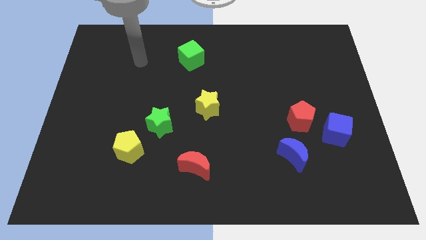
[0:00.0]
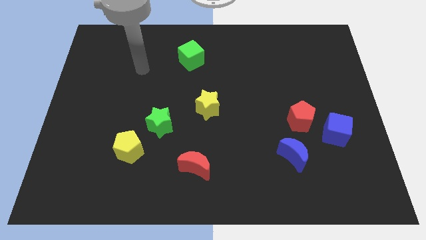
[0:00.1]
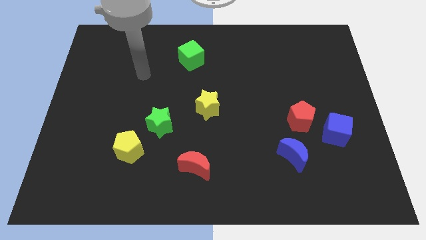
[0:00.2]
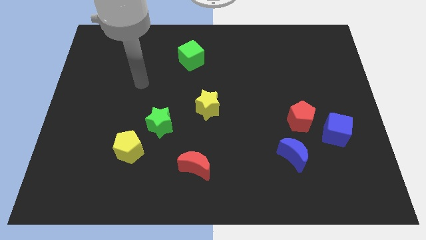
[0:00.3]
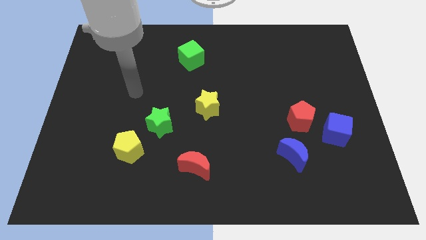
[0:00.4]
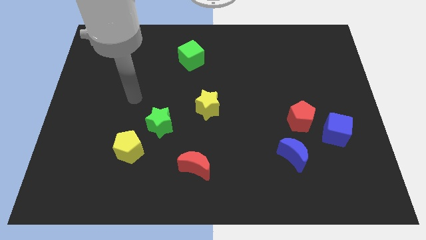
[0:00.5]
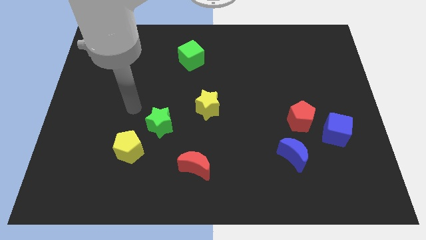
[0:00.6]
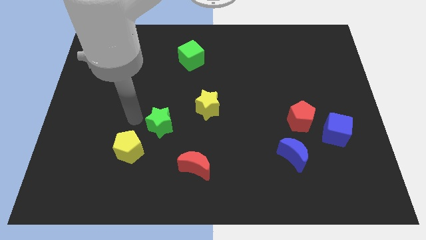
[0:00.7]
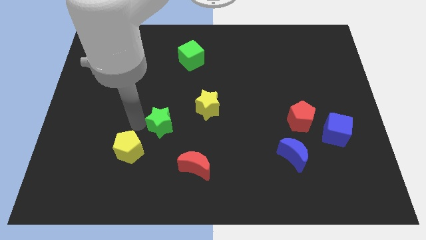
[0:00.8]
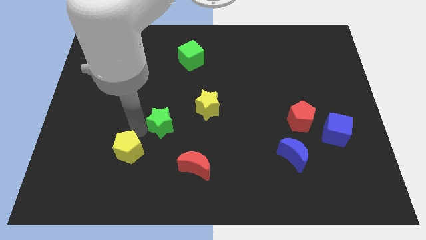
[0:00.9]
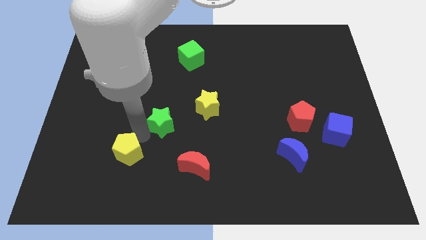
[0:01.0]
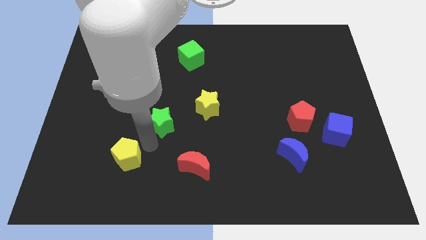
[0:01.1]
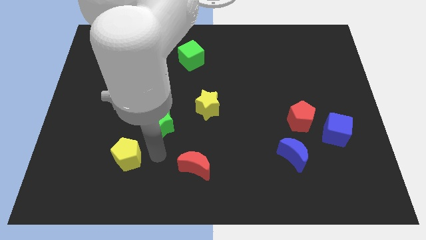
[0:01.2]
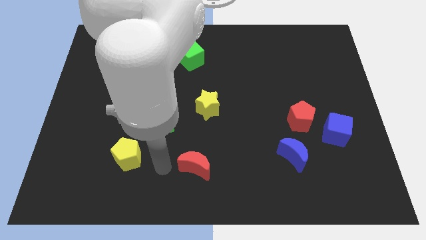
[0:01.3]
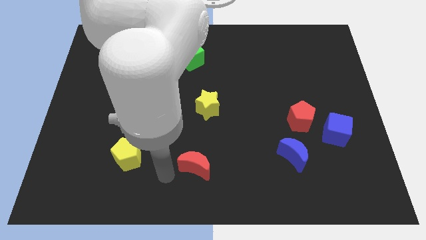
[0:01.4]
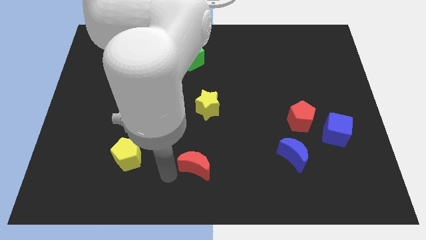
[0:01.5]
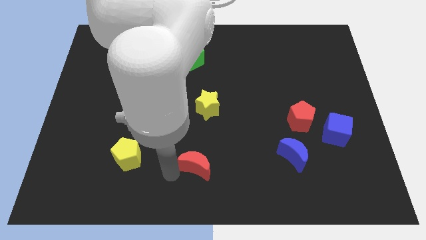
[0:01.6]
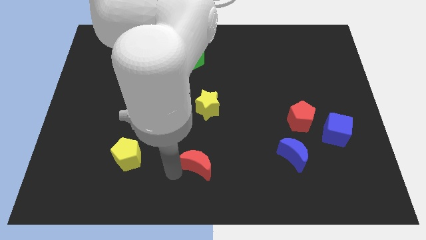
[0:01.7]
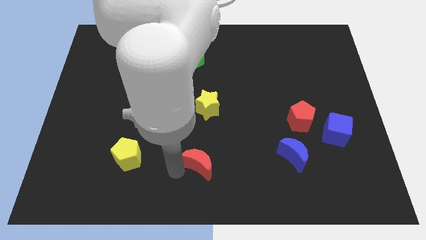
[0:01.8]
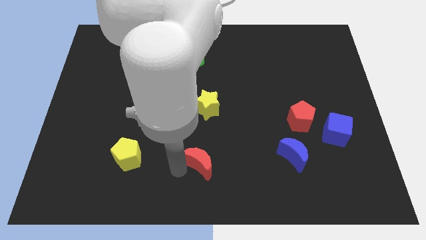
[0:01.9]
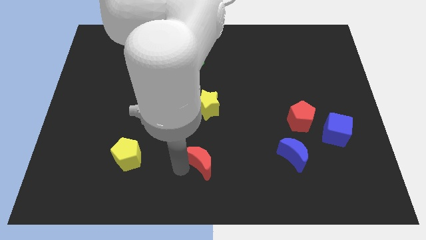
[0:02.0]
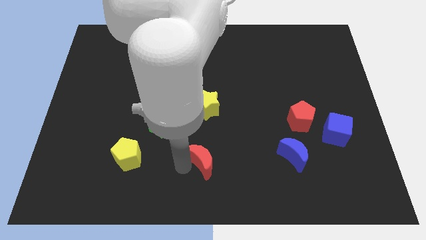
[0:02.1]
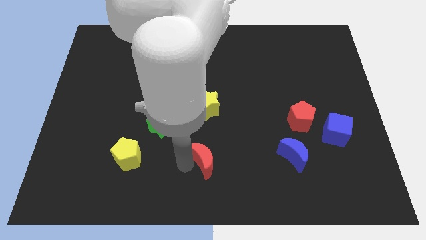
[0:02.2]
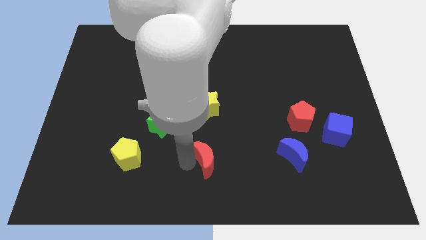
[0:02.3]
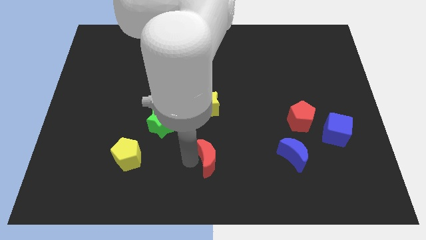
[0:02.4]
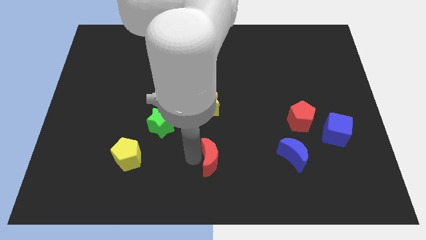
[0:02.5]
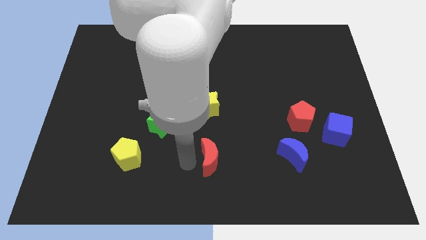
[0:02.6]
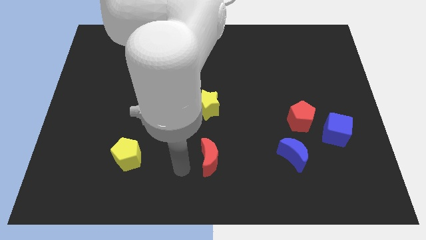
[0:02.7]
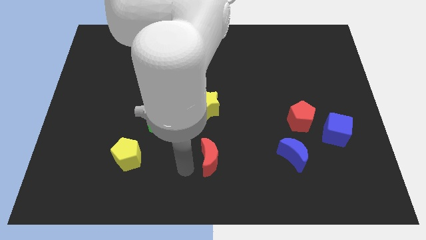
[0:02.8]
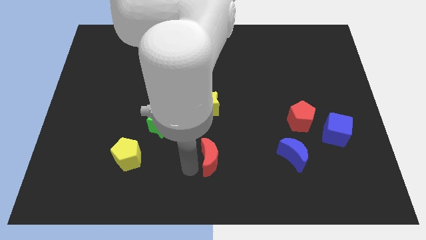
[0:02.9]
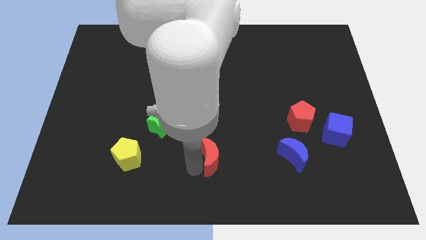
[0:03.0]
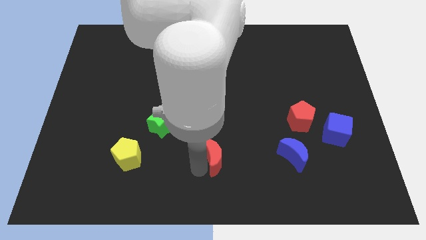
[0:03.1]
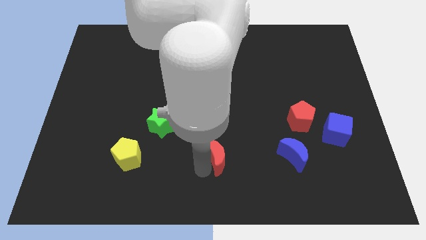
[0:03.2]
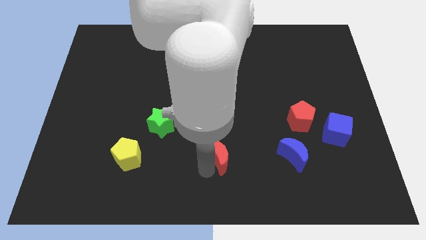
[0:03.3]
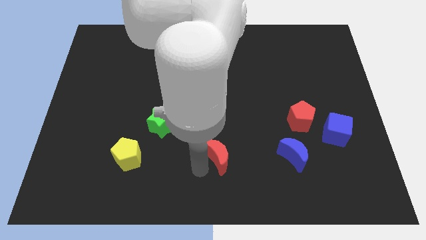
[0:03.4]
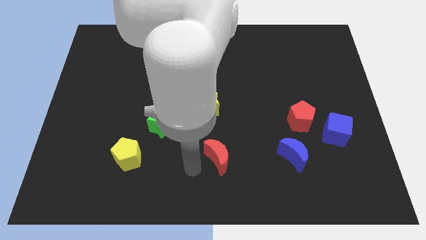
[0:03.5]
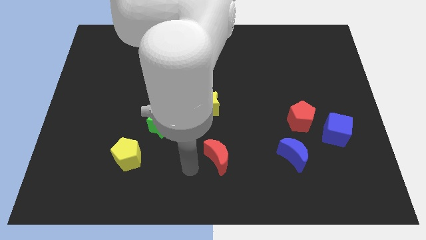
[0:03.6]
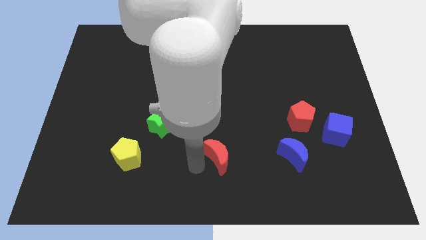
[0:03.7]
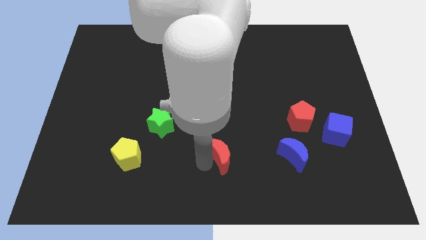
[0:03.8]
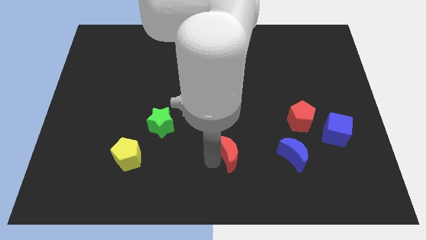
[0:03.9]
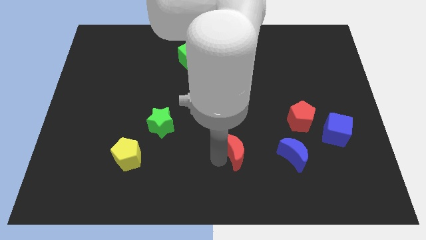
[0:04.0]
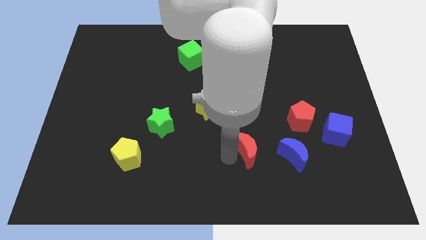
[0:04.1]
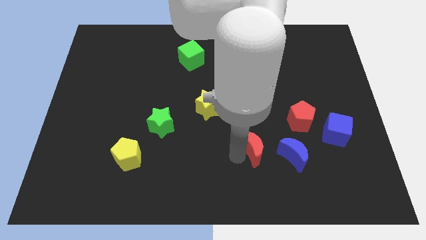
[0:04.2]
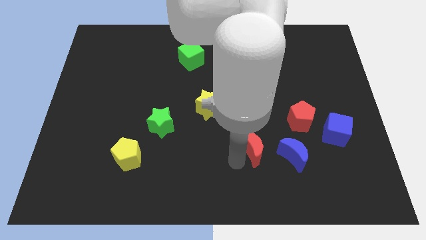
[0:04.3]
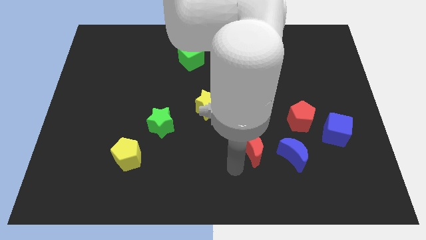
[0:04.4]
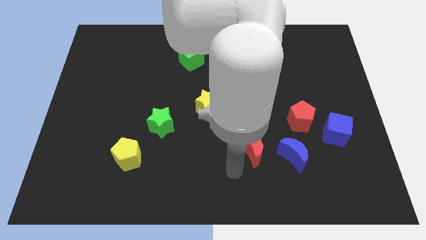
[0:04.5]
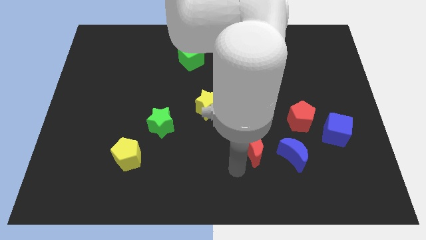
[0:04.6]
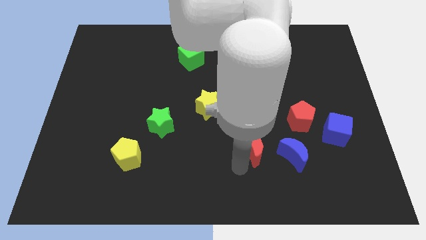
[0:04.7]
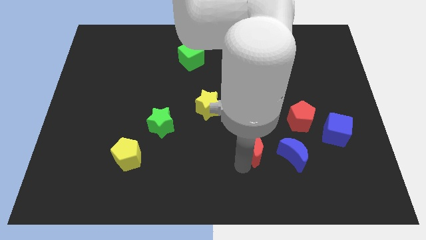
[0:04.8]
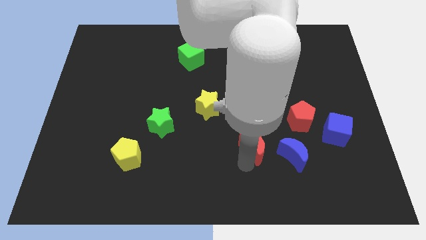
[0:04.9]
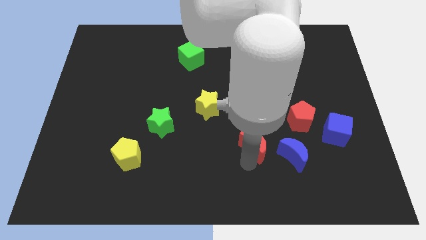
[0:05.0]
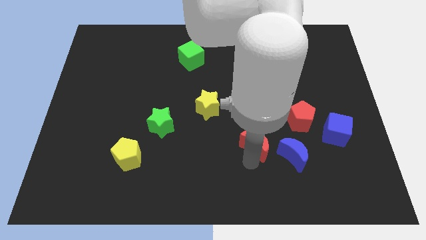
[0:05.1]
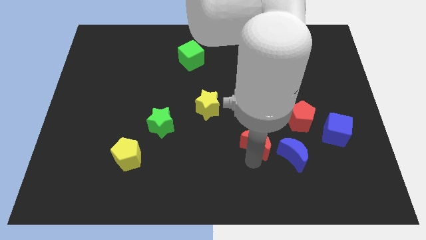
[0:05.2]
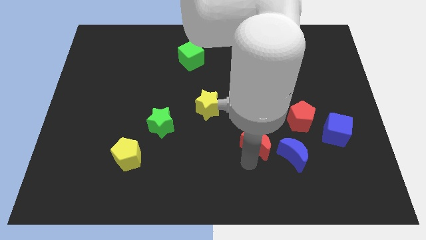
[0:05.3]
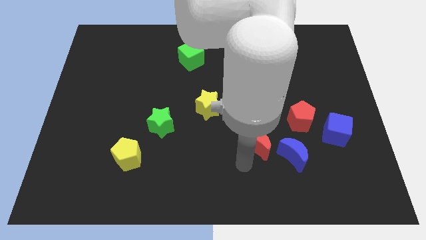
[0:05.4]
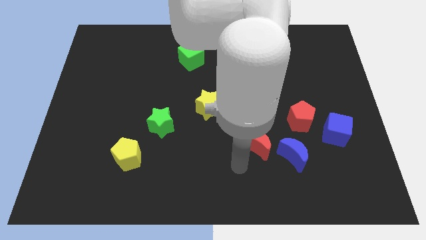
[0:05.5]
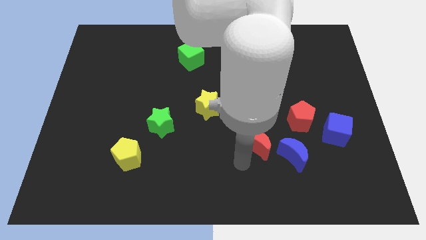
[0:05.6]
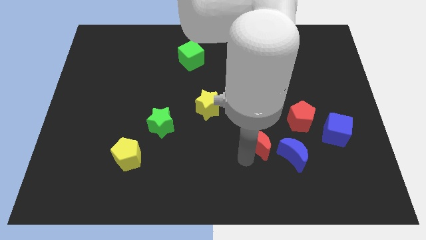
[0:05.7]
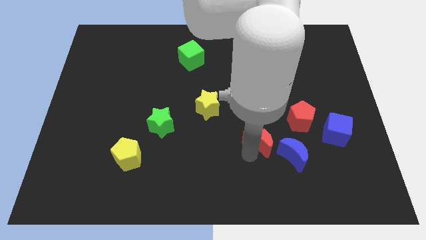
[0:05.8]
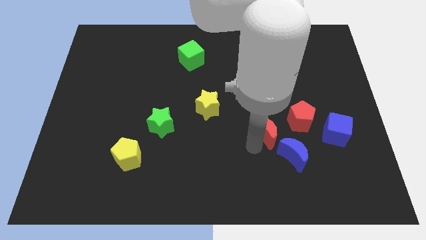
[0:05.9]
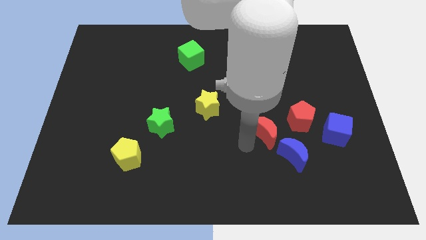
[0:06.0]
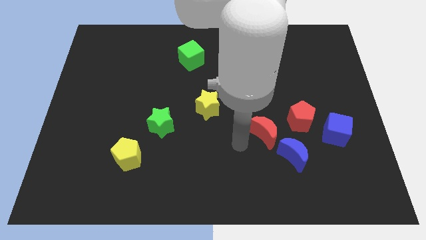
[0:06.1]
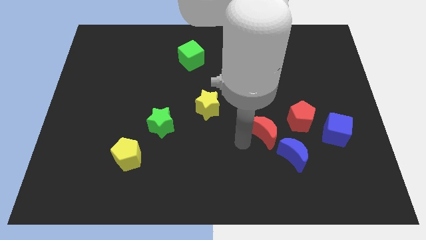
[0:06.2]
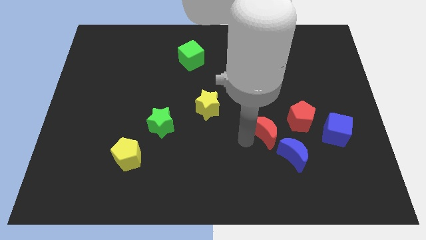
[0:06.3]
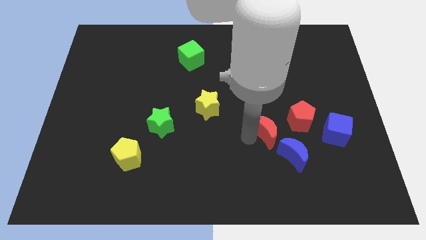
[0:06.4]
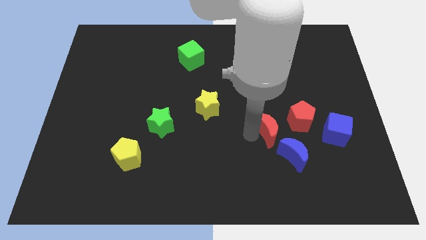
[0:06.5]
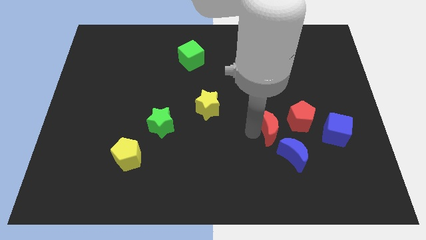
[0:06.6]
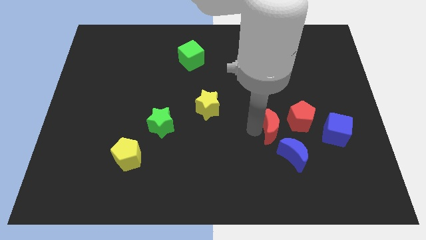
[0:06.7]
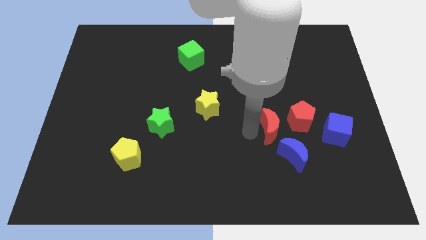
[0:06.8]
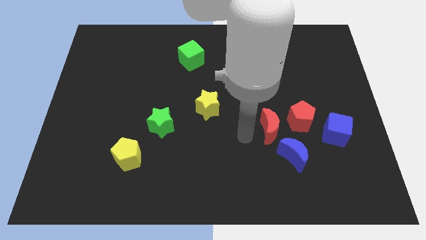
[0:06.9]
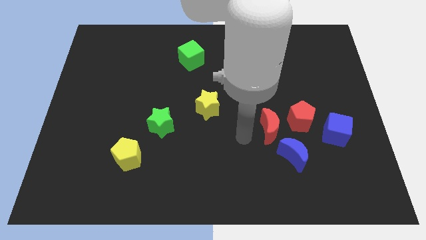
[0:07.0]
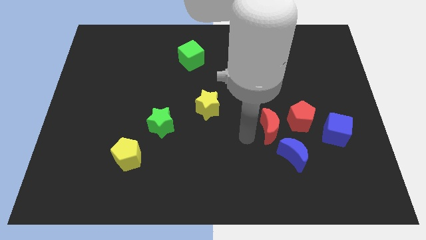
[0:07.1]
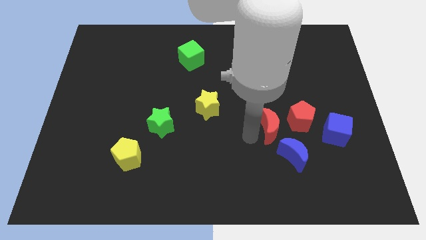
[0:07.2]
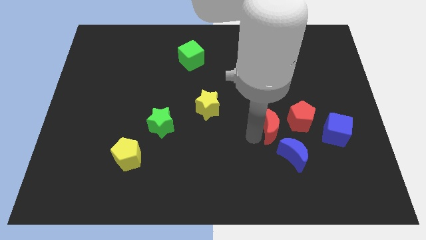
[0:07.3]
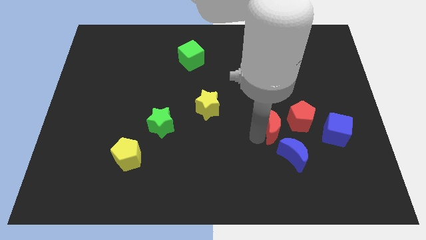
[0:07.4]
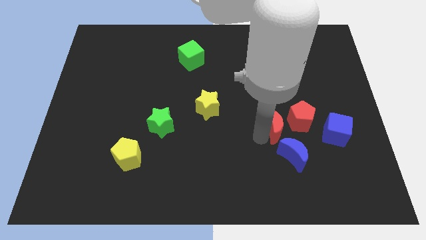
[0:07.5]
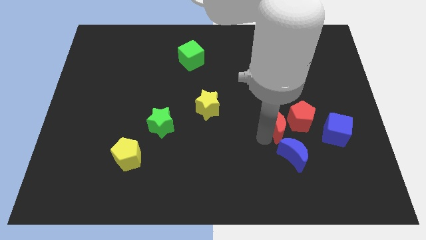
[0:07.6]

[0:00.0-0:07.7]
move the red moon towards the red pentagon
